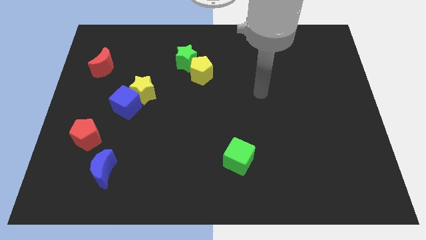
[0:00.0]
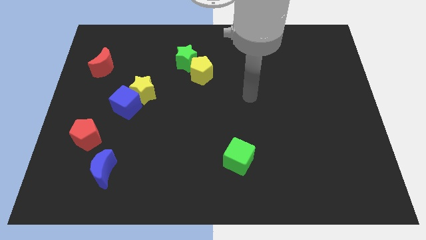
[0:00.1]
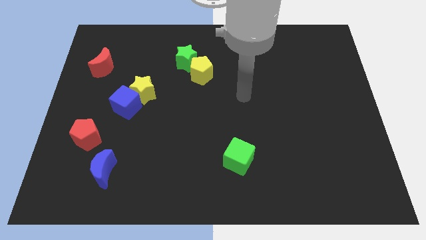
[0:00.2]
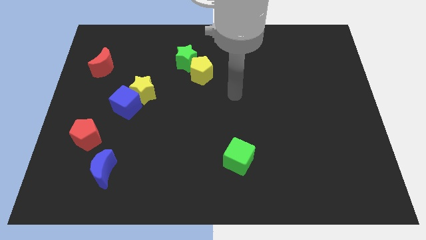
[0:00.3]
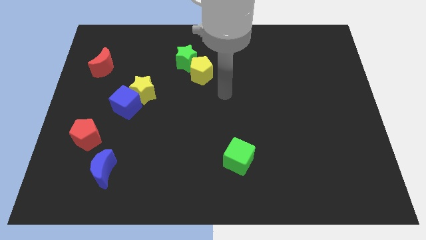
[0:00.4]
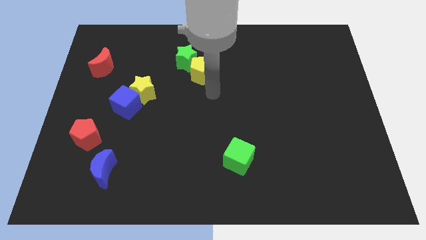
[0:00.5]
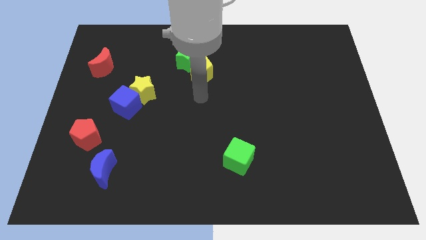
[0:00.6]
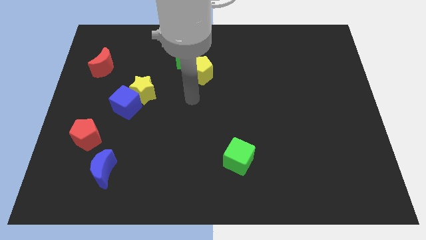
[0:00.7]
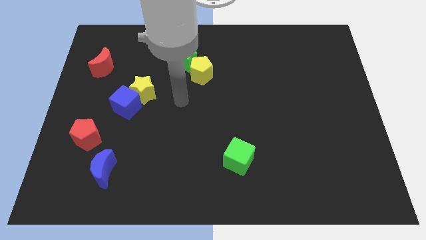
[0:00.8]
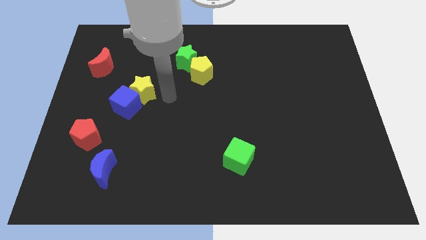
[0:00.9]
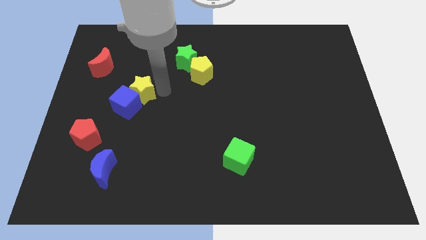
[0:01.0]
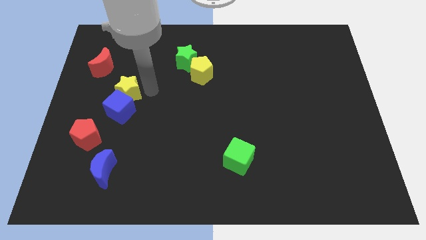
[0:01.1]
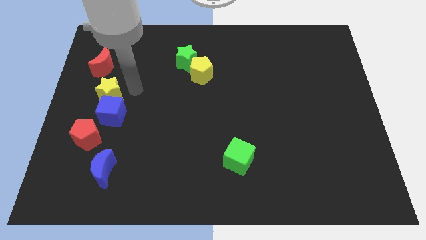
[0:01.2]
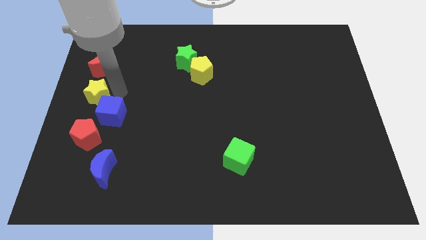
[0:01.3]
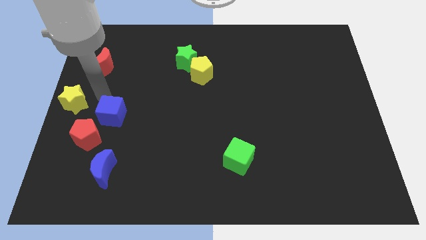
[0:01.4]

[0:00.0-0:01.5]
separate the blue cube from the yellow star

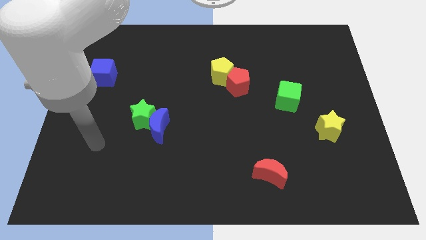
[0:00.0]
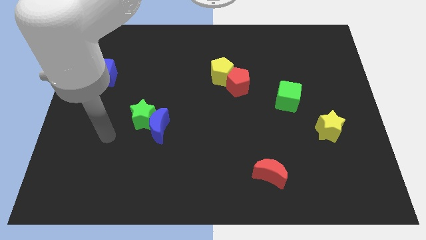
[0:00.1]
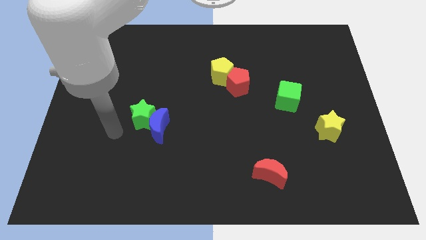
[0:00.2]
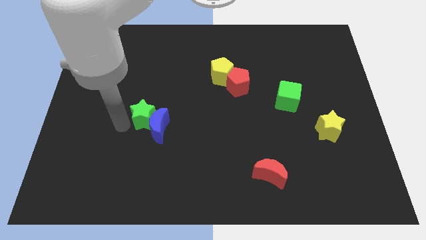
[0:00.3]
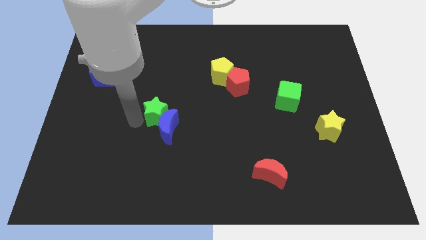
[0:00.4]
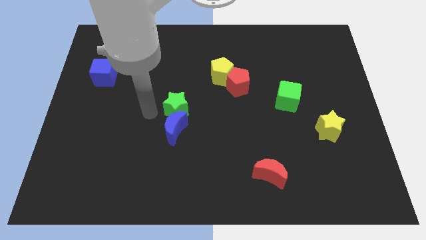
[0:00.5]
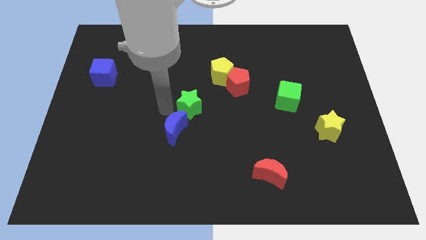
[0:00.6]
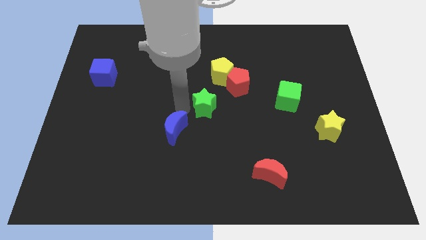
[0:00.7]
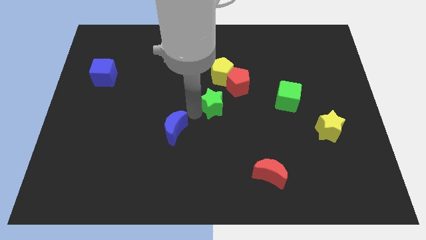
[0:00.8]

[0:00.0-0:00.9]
pull the blue moon apart from the green star

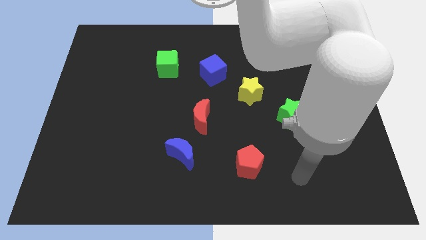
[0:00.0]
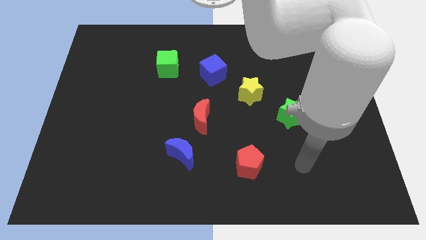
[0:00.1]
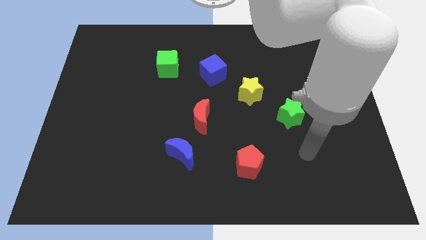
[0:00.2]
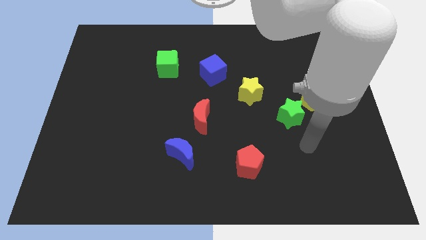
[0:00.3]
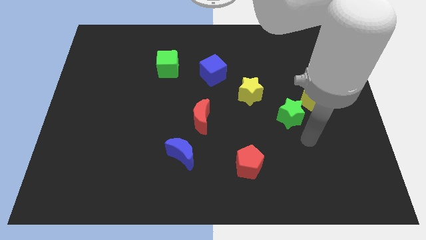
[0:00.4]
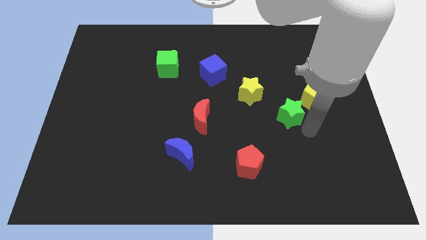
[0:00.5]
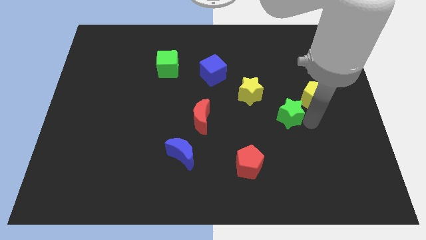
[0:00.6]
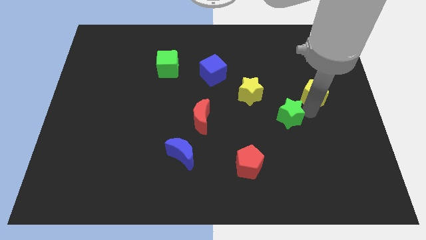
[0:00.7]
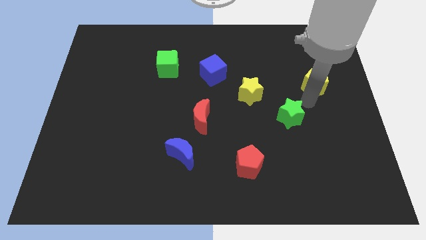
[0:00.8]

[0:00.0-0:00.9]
separate the green star from the yellow pentagon

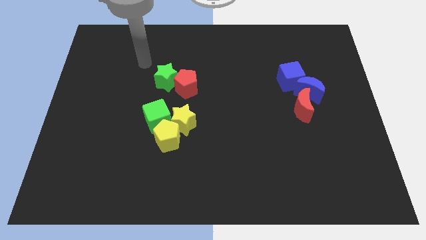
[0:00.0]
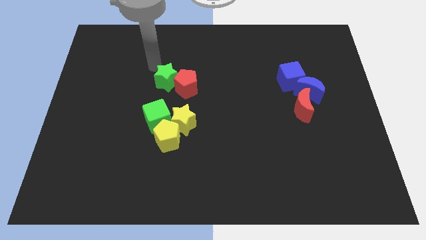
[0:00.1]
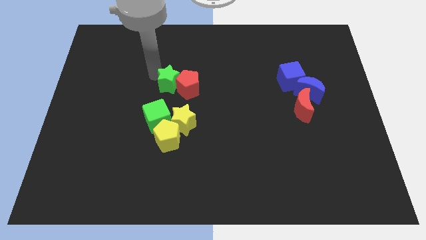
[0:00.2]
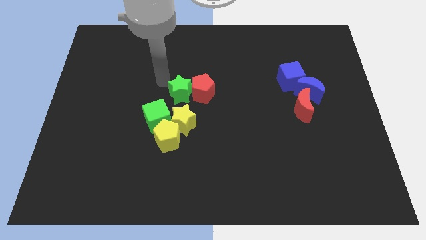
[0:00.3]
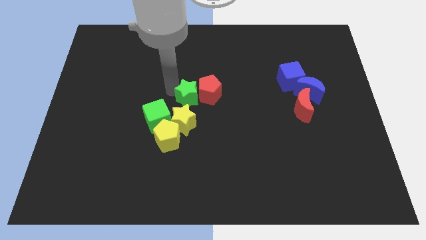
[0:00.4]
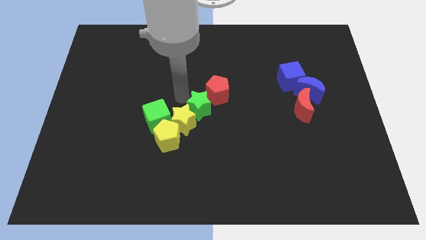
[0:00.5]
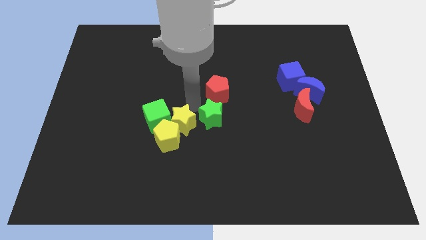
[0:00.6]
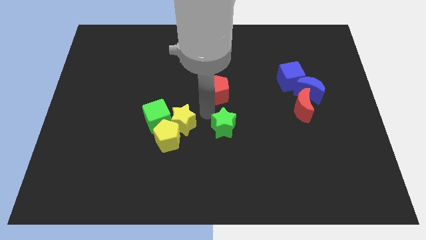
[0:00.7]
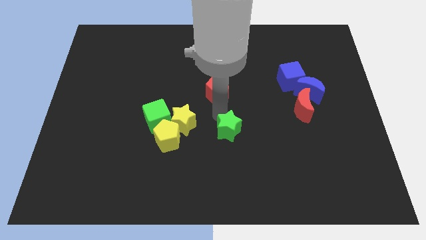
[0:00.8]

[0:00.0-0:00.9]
pull the red pentagon apart from the green star

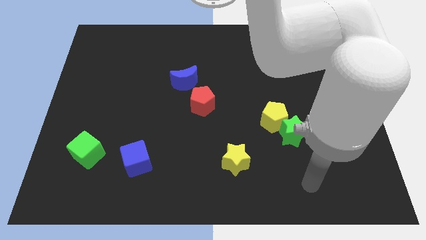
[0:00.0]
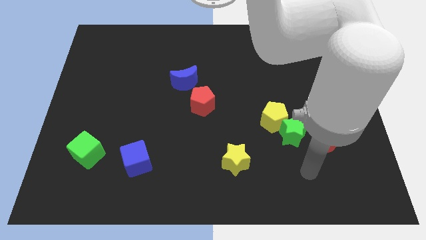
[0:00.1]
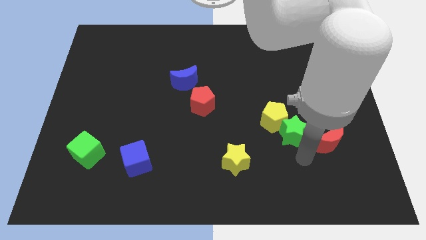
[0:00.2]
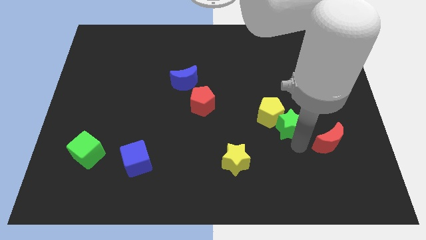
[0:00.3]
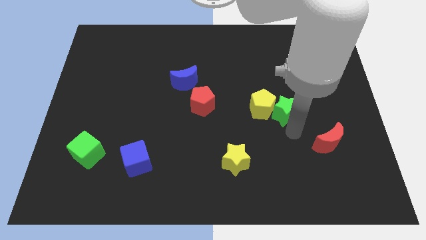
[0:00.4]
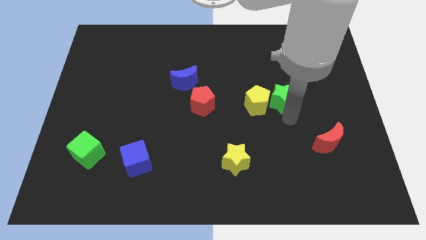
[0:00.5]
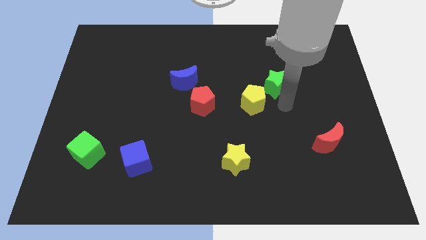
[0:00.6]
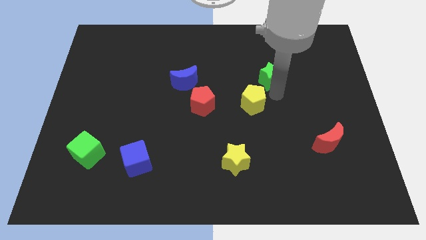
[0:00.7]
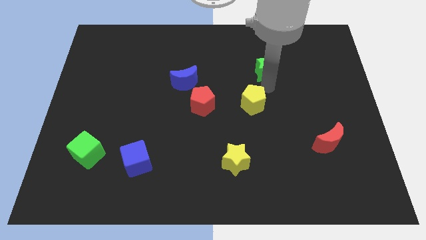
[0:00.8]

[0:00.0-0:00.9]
pull the yellow pentagon apart from the green star

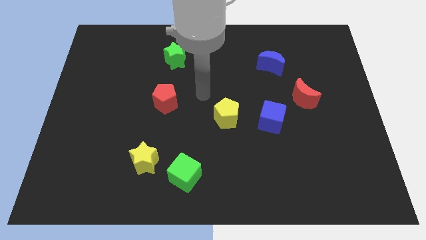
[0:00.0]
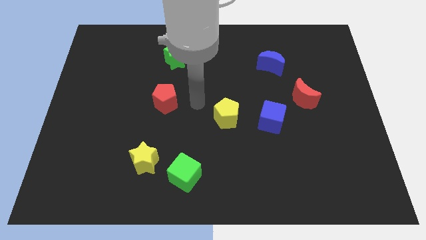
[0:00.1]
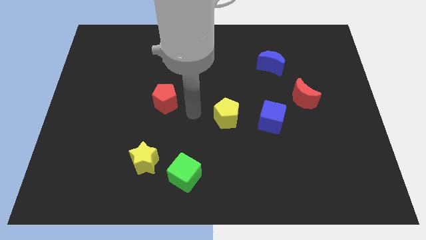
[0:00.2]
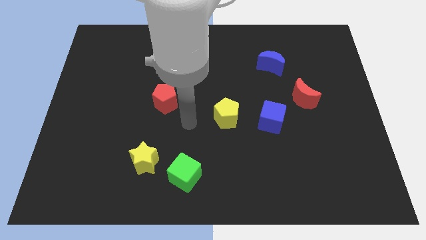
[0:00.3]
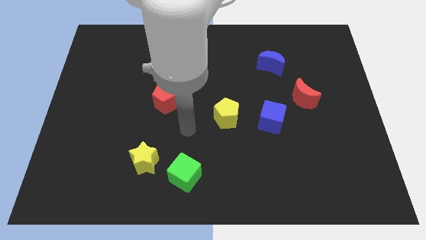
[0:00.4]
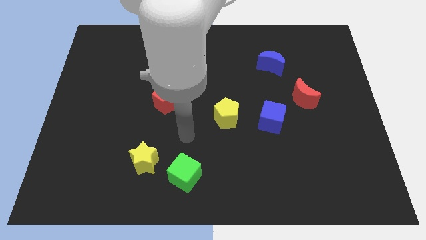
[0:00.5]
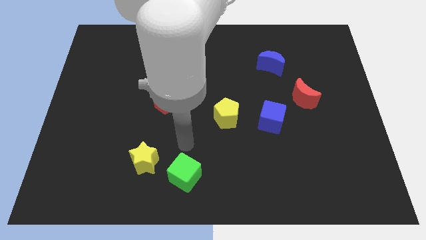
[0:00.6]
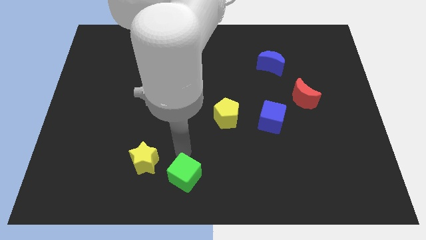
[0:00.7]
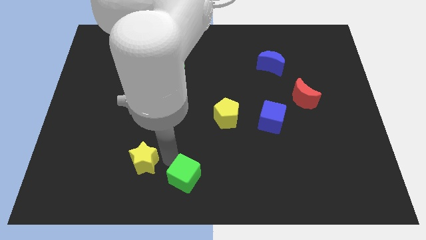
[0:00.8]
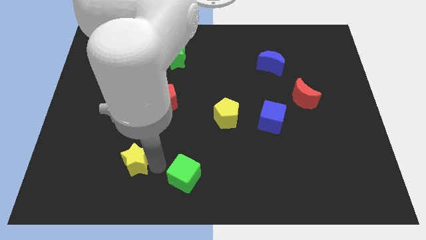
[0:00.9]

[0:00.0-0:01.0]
separate the green cube from the yellow star

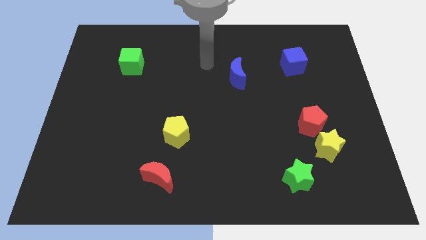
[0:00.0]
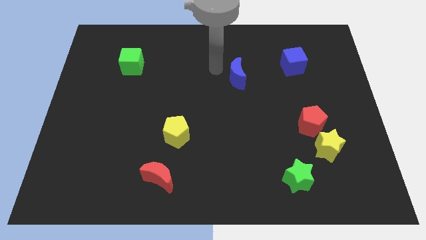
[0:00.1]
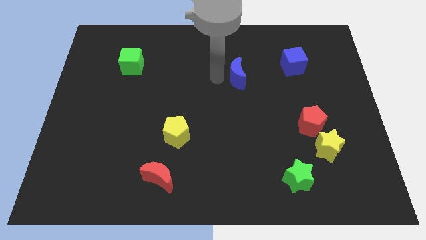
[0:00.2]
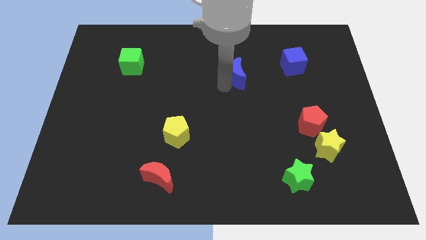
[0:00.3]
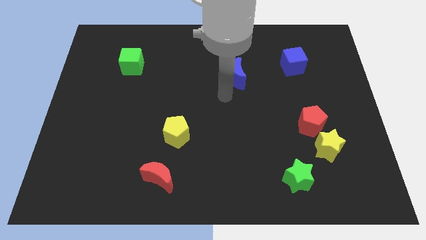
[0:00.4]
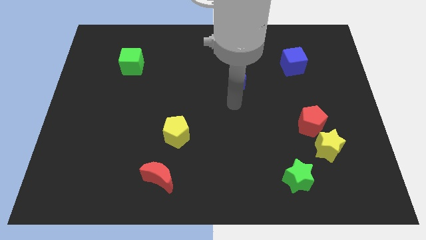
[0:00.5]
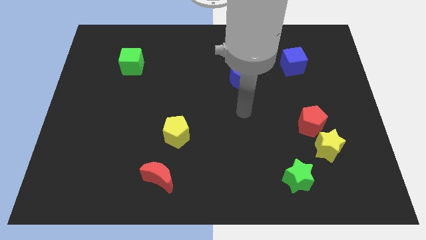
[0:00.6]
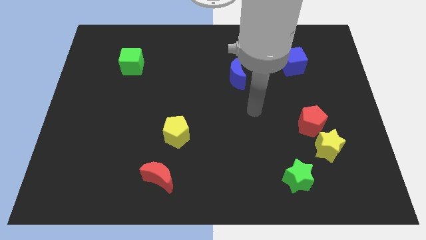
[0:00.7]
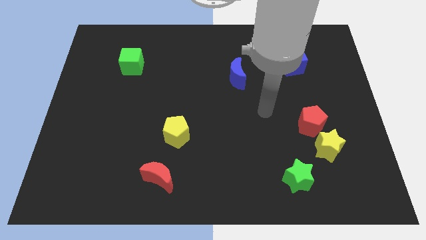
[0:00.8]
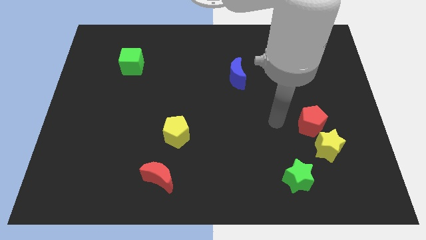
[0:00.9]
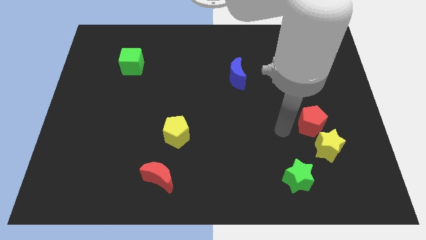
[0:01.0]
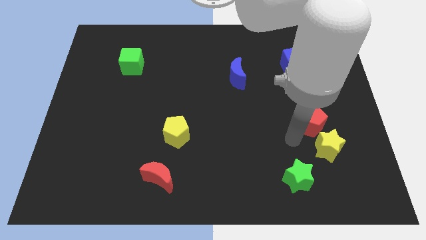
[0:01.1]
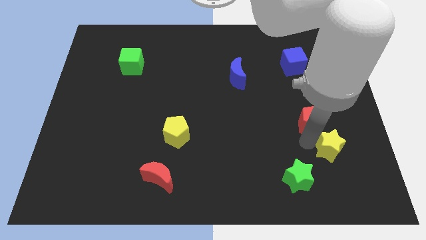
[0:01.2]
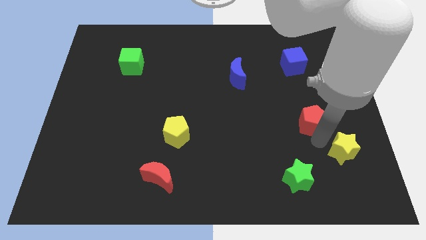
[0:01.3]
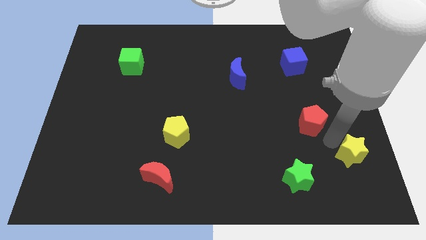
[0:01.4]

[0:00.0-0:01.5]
separate the red pentagon from the yellow star

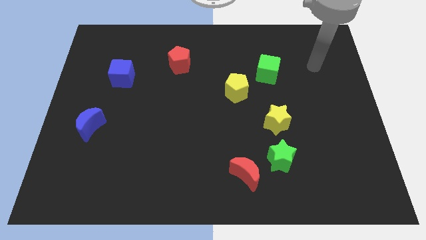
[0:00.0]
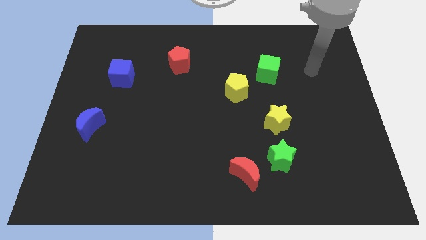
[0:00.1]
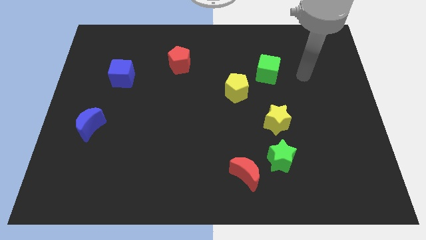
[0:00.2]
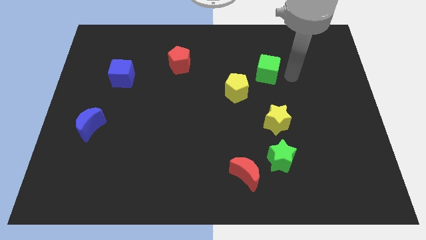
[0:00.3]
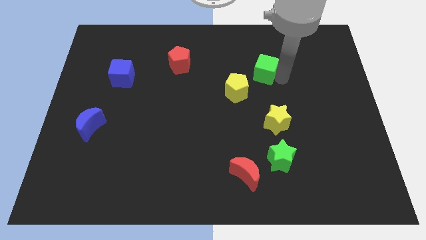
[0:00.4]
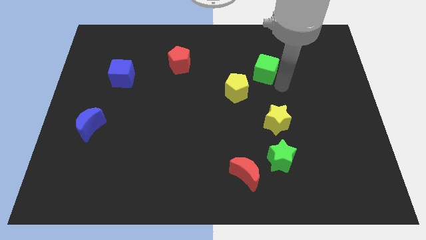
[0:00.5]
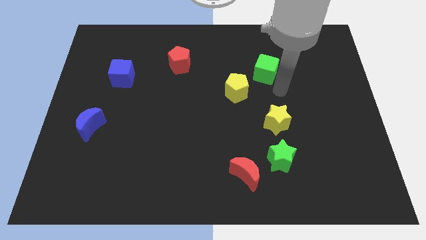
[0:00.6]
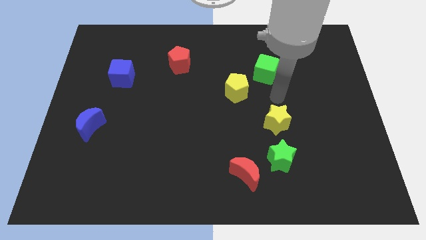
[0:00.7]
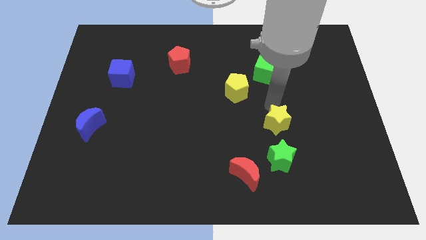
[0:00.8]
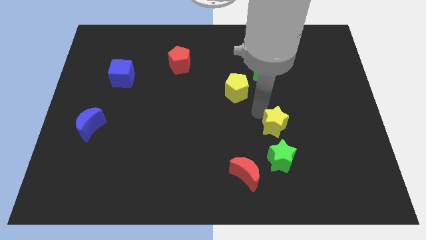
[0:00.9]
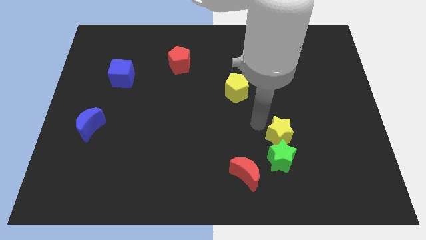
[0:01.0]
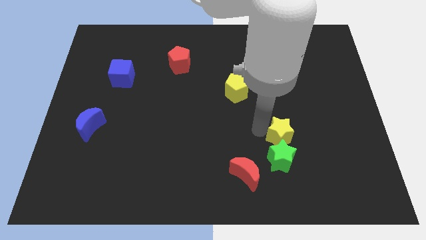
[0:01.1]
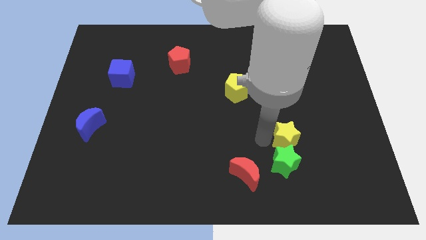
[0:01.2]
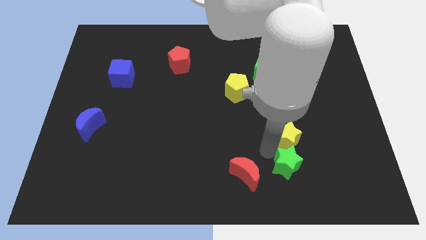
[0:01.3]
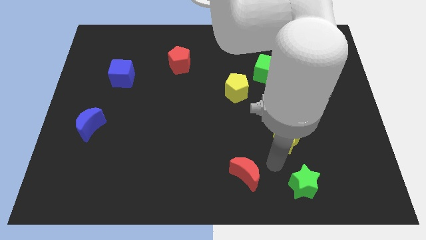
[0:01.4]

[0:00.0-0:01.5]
separate the red moon from the green star

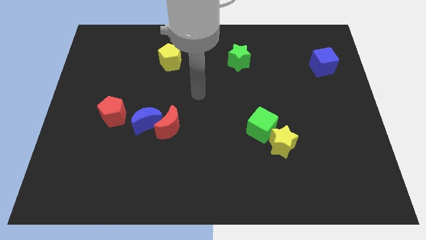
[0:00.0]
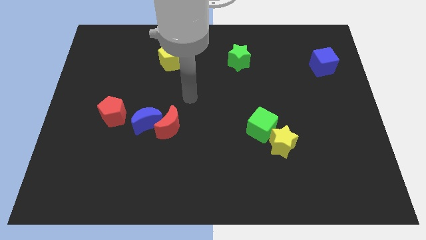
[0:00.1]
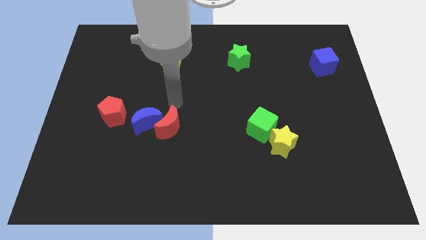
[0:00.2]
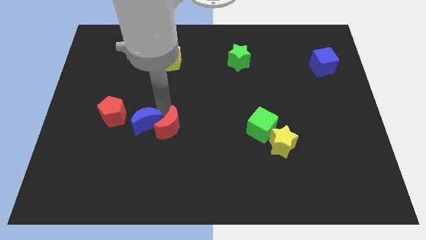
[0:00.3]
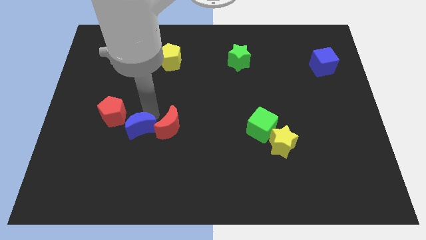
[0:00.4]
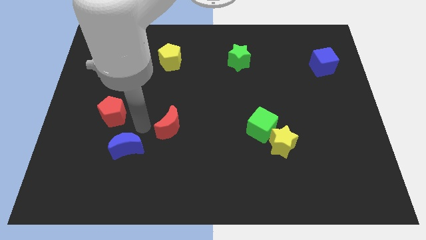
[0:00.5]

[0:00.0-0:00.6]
pull the red moon apart from the blue moon
